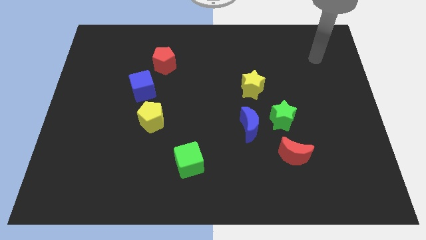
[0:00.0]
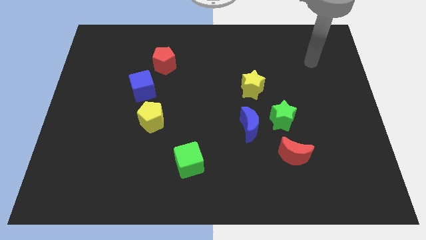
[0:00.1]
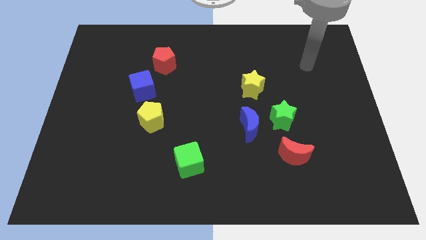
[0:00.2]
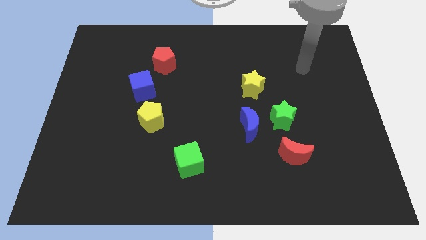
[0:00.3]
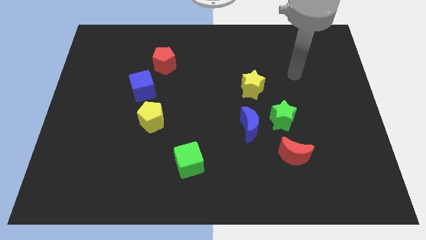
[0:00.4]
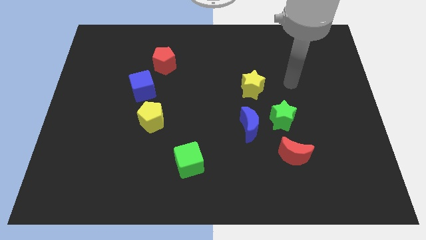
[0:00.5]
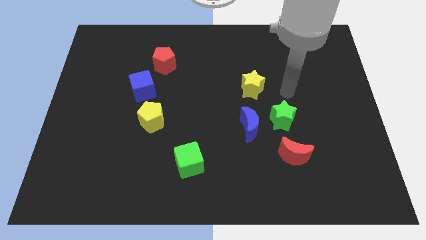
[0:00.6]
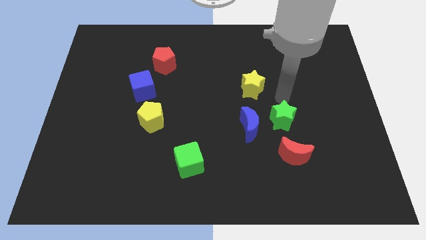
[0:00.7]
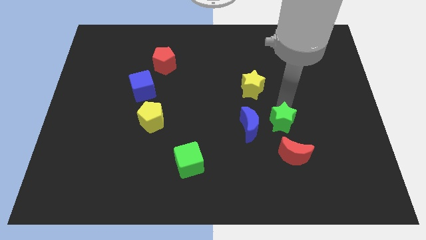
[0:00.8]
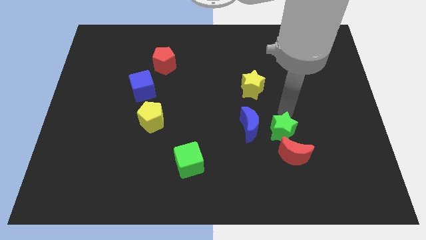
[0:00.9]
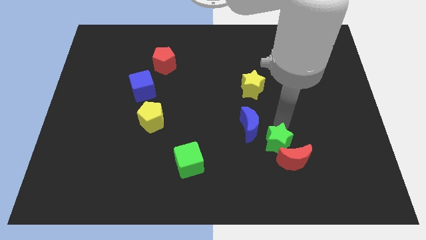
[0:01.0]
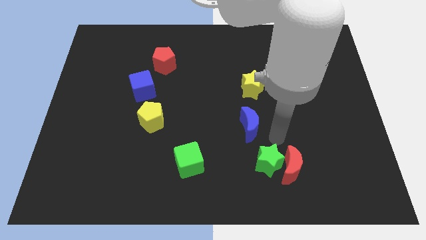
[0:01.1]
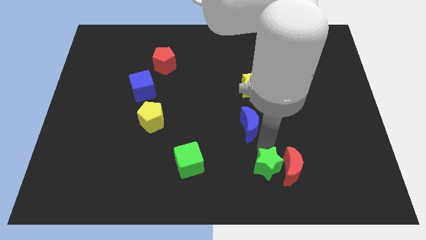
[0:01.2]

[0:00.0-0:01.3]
pull the blue moon apart from the green star

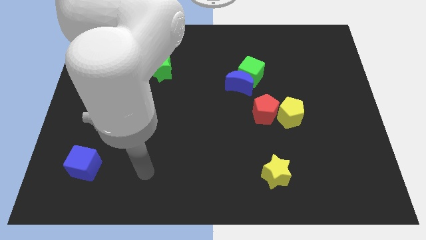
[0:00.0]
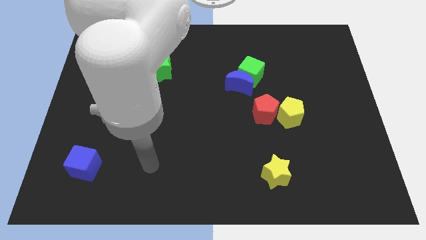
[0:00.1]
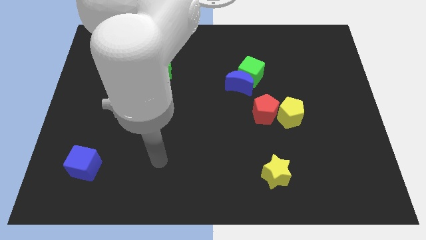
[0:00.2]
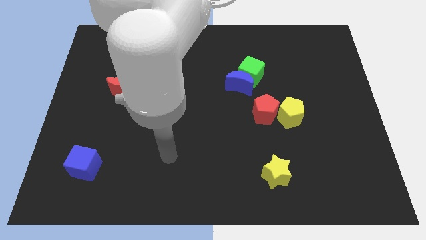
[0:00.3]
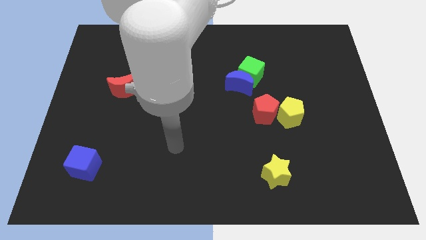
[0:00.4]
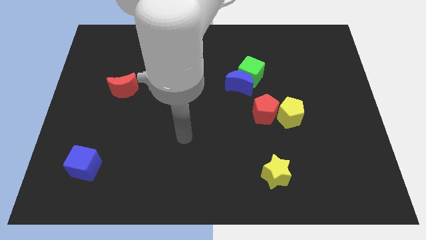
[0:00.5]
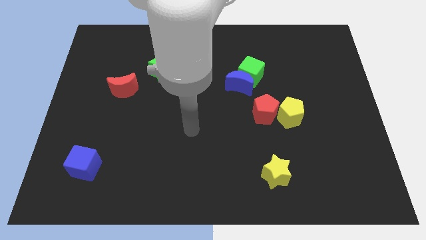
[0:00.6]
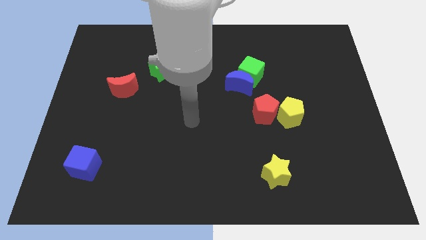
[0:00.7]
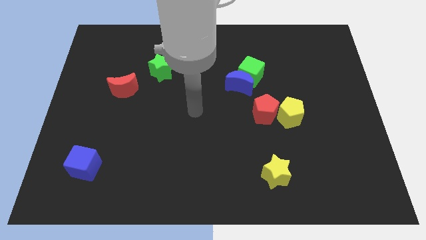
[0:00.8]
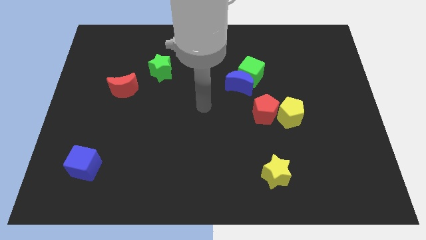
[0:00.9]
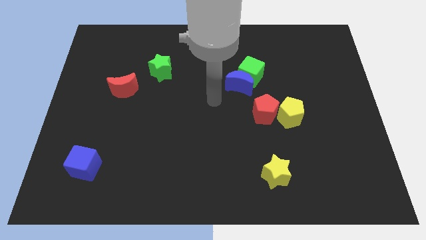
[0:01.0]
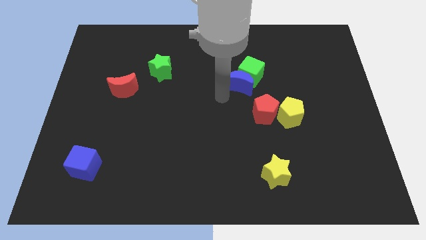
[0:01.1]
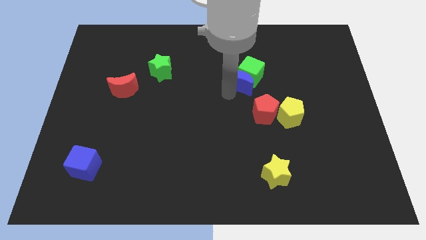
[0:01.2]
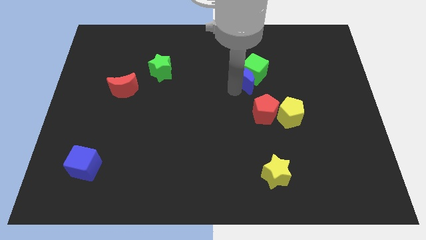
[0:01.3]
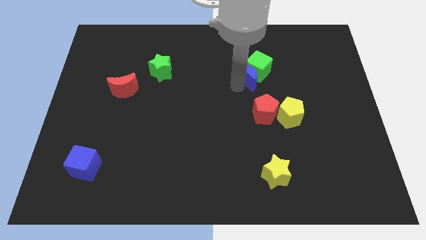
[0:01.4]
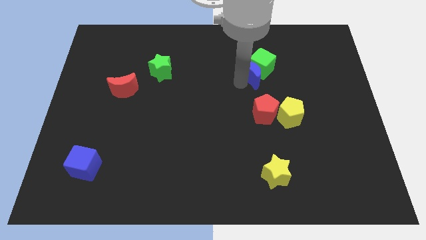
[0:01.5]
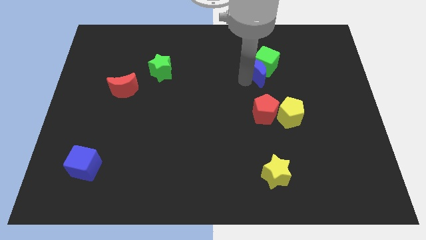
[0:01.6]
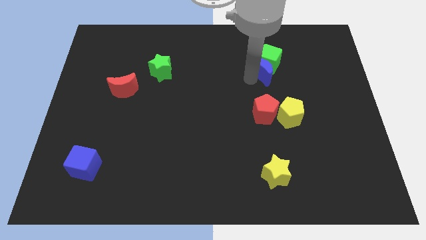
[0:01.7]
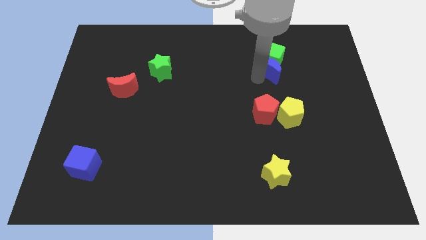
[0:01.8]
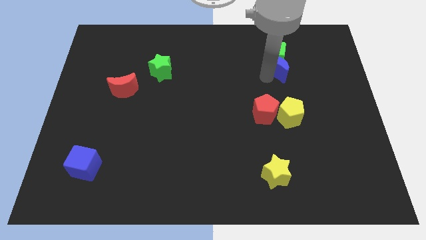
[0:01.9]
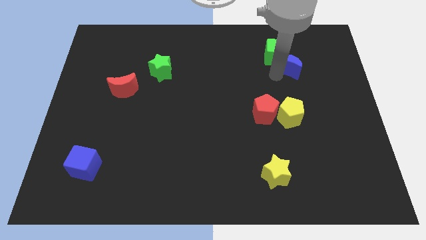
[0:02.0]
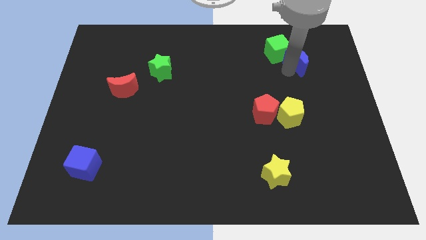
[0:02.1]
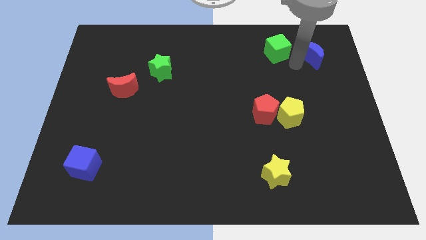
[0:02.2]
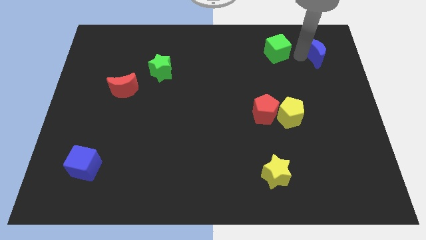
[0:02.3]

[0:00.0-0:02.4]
move the green cube away from the blue moon

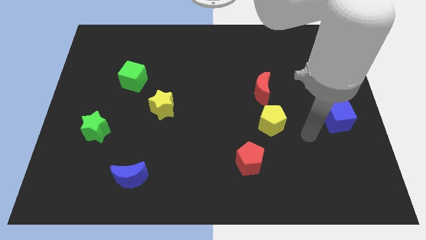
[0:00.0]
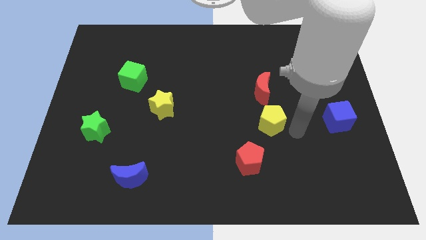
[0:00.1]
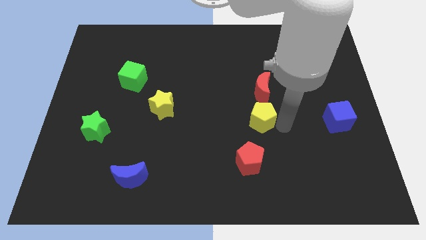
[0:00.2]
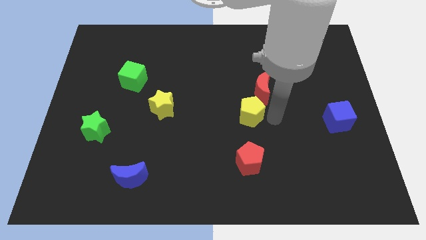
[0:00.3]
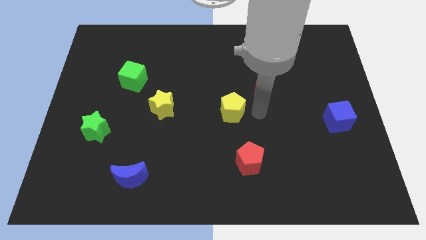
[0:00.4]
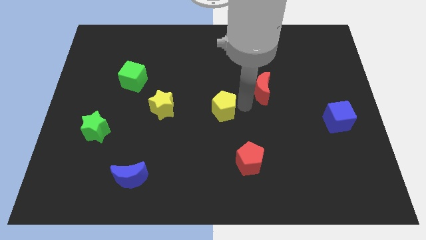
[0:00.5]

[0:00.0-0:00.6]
pull the red moon apart from the yellow pentagon

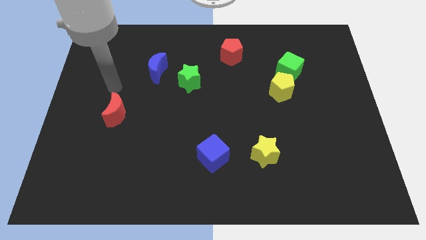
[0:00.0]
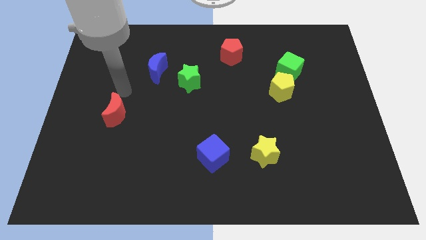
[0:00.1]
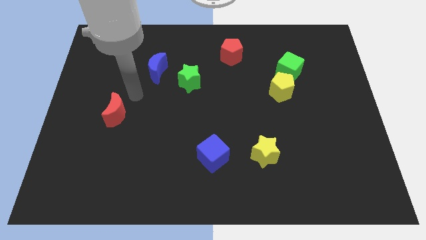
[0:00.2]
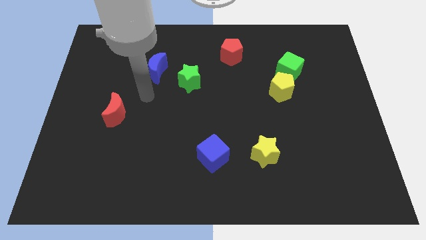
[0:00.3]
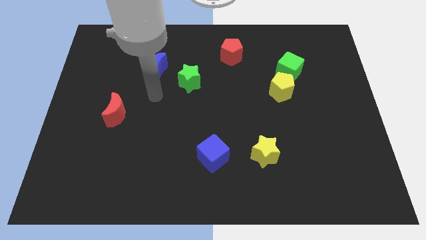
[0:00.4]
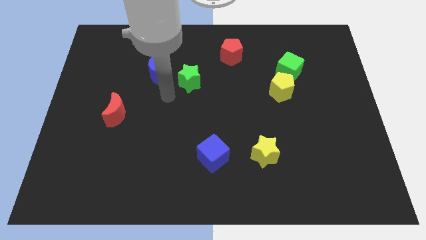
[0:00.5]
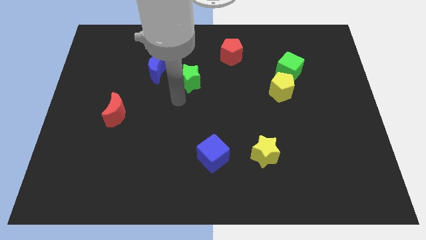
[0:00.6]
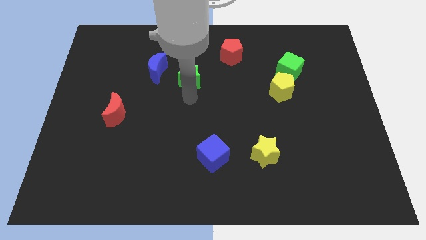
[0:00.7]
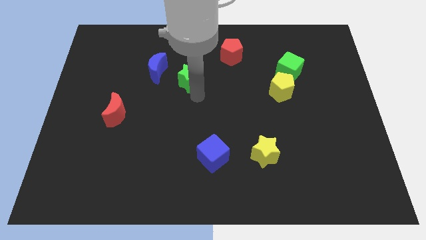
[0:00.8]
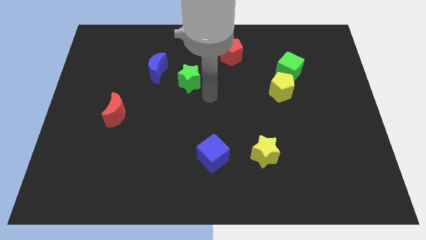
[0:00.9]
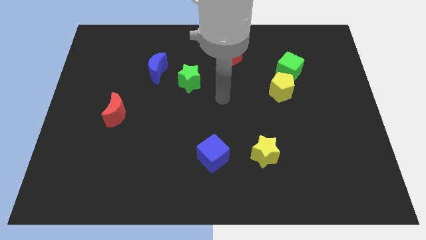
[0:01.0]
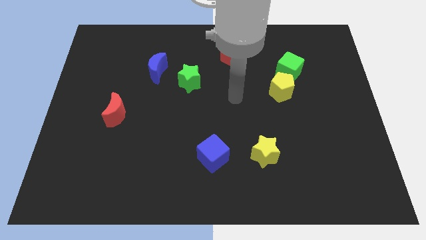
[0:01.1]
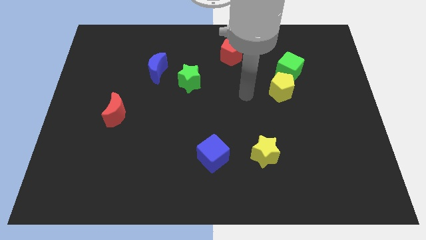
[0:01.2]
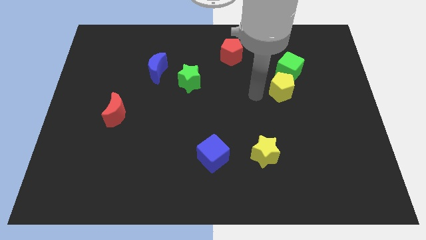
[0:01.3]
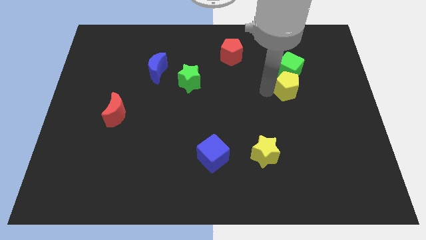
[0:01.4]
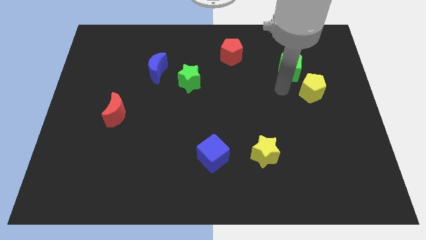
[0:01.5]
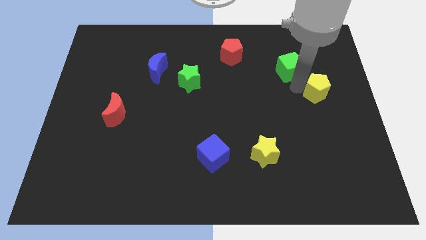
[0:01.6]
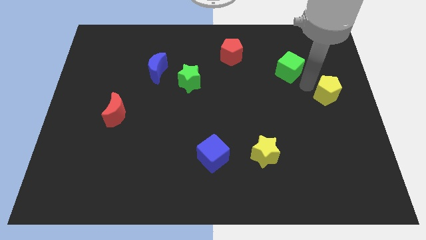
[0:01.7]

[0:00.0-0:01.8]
pull the green cube apart from the yellow pentagon

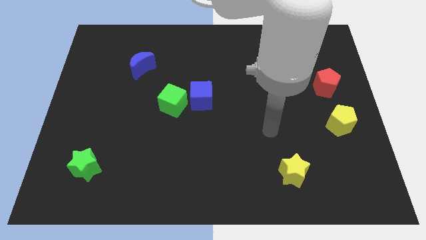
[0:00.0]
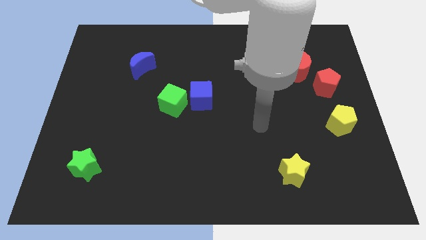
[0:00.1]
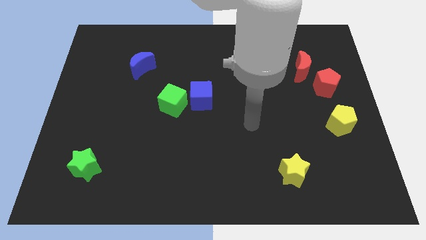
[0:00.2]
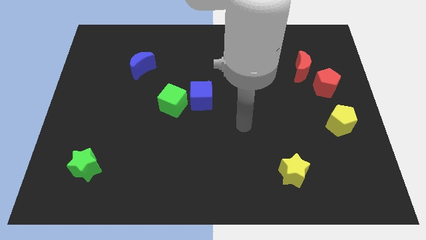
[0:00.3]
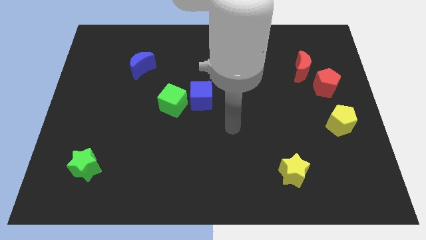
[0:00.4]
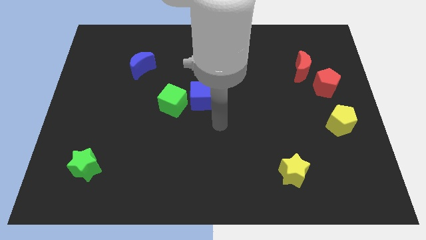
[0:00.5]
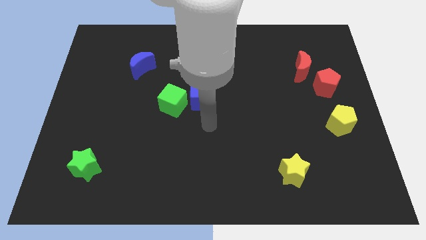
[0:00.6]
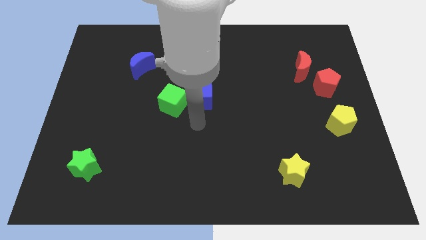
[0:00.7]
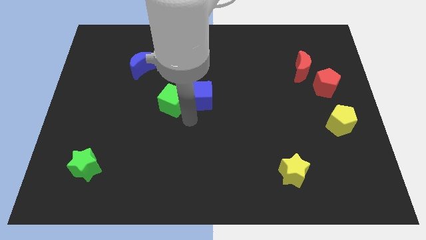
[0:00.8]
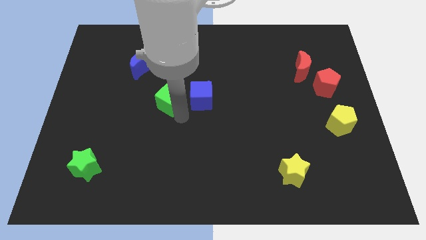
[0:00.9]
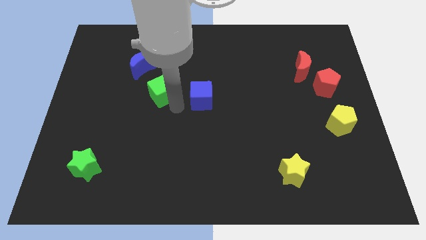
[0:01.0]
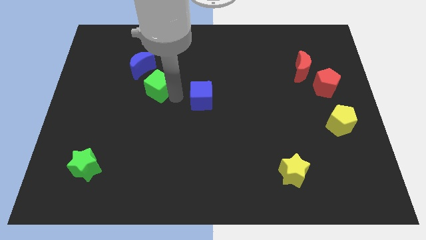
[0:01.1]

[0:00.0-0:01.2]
move the blue cube away from the green cube

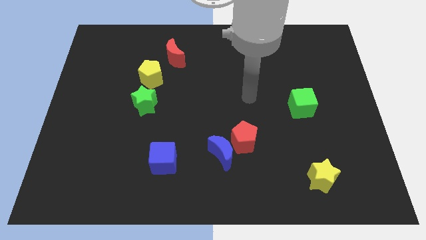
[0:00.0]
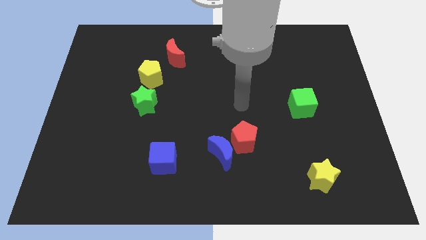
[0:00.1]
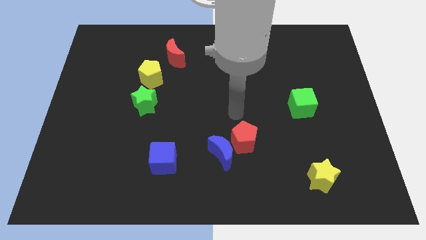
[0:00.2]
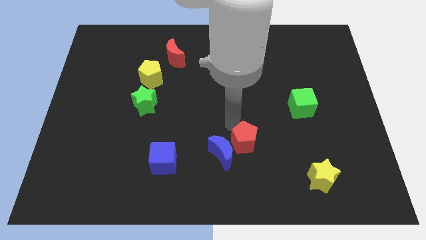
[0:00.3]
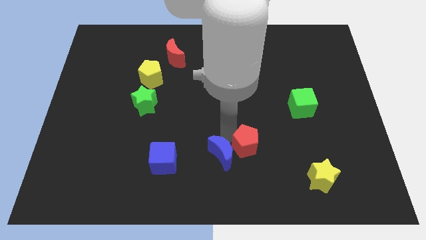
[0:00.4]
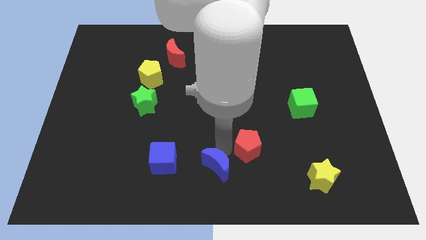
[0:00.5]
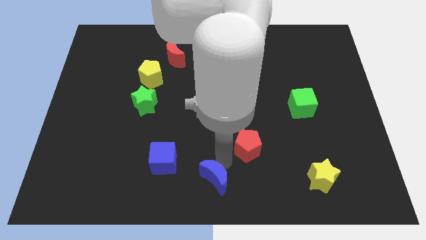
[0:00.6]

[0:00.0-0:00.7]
move the red pentagon away from the blue moon

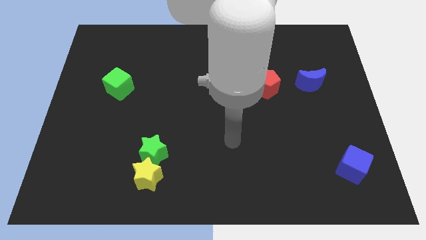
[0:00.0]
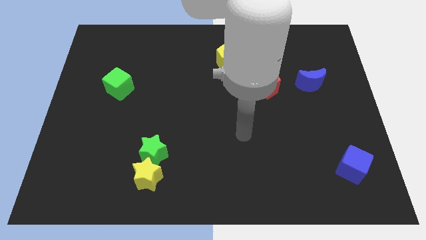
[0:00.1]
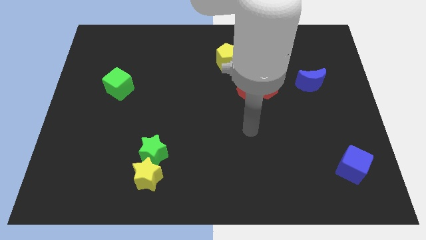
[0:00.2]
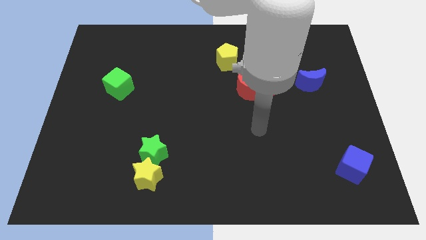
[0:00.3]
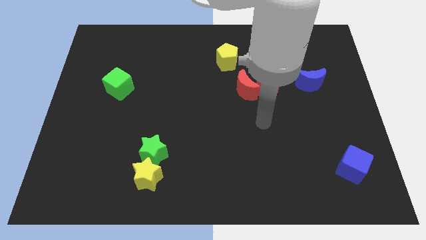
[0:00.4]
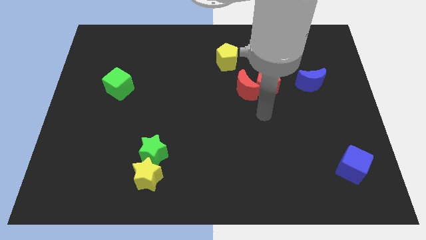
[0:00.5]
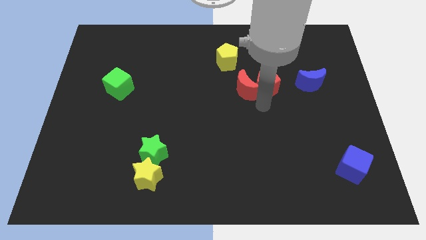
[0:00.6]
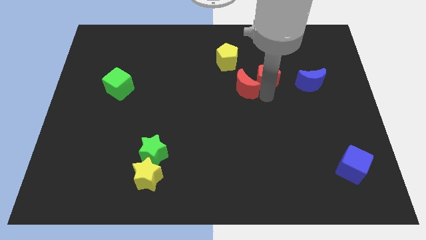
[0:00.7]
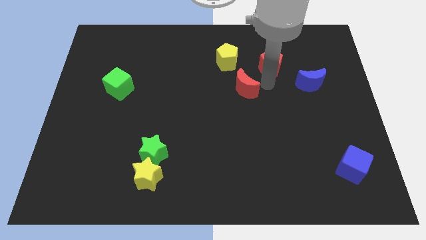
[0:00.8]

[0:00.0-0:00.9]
move the red moon away from the red pentagon

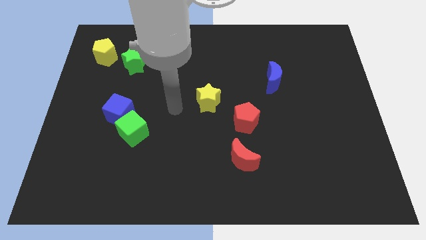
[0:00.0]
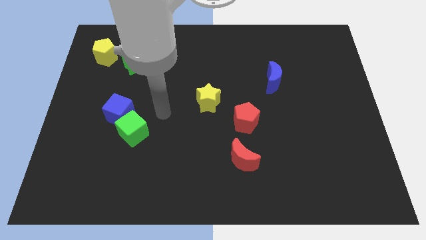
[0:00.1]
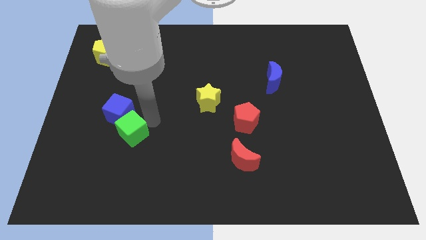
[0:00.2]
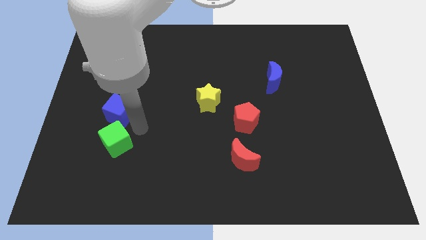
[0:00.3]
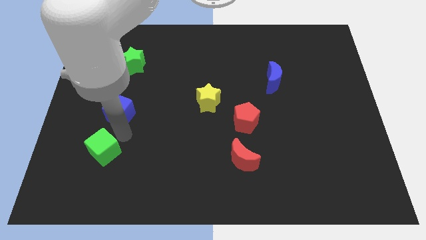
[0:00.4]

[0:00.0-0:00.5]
pull the blue cube apart from the green cube

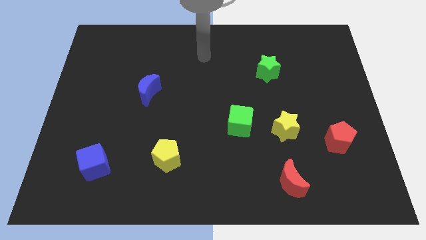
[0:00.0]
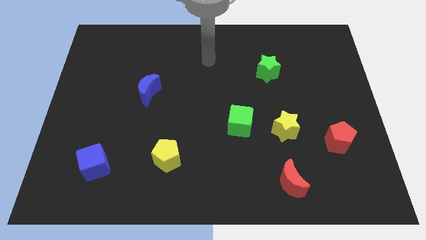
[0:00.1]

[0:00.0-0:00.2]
pull the green cube apart from the yellow star
